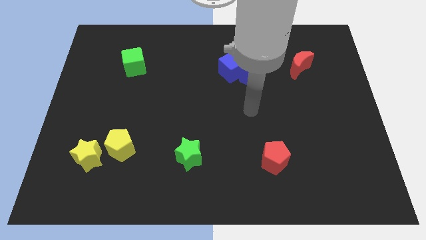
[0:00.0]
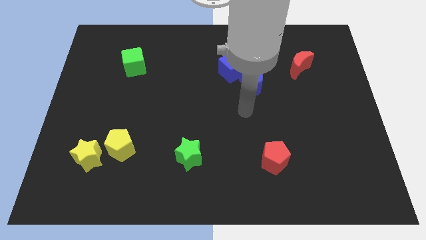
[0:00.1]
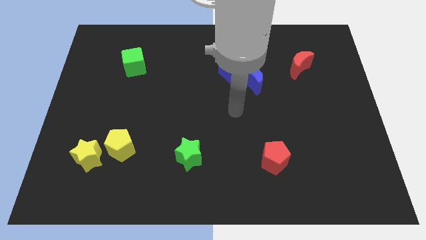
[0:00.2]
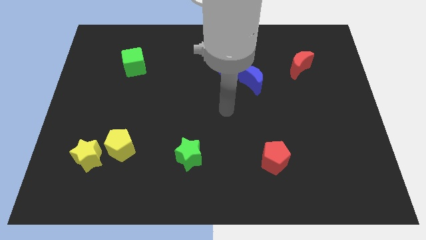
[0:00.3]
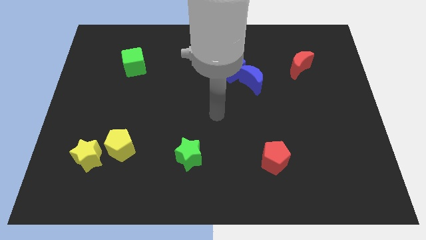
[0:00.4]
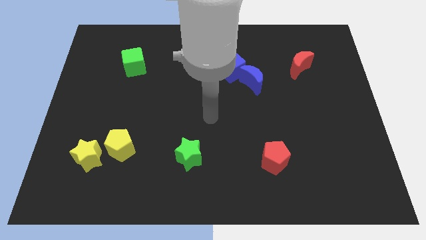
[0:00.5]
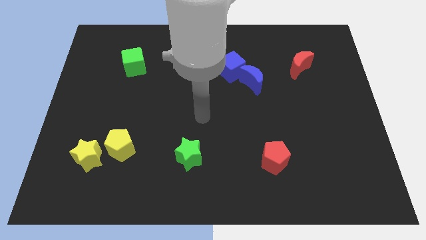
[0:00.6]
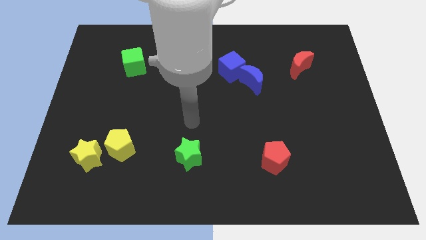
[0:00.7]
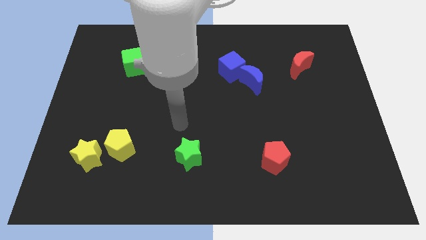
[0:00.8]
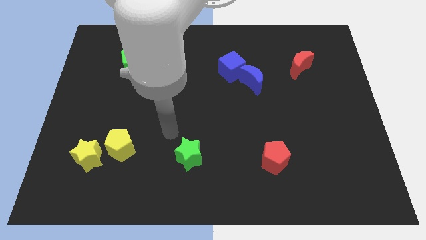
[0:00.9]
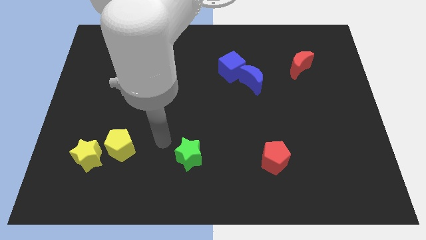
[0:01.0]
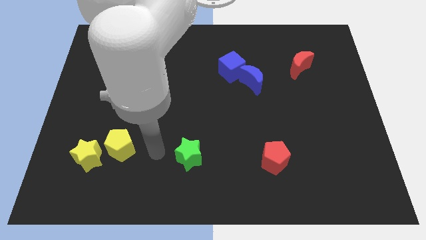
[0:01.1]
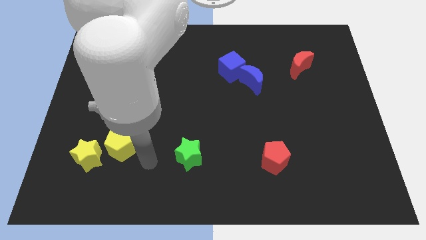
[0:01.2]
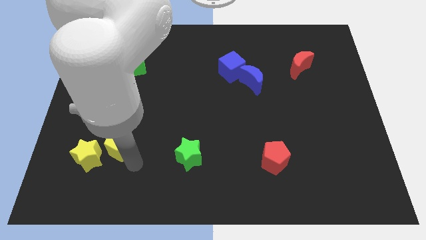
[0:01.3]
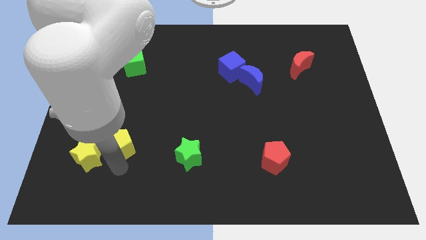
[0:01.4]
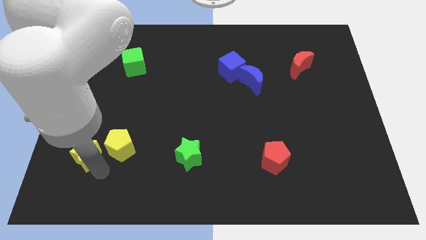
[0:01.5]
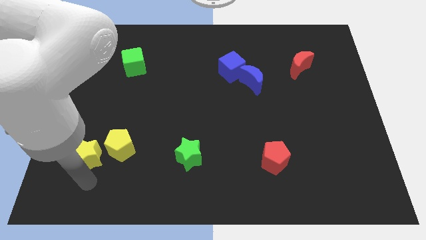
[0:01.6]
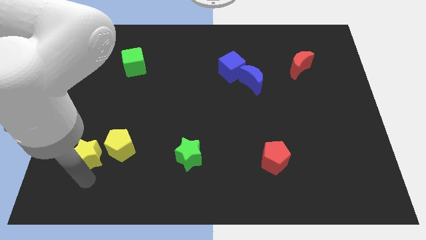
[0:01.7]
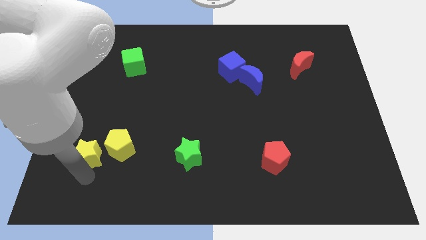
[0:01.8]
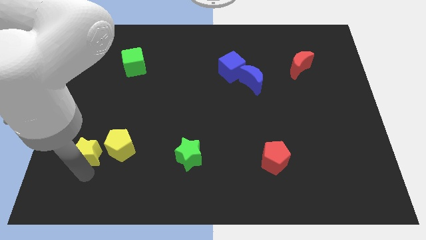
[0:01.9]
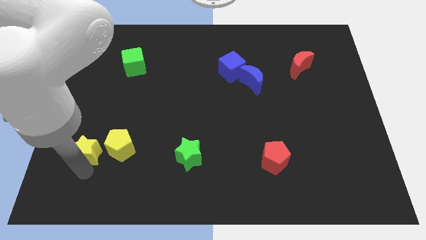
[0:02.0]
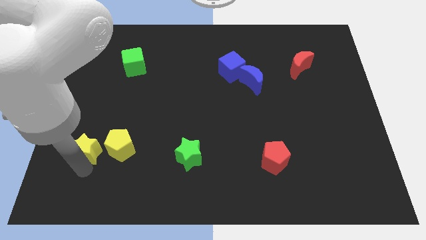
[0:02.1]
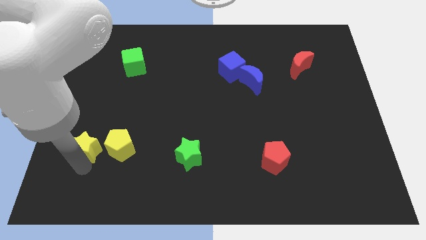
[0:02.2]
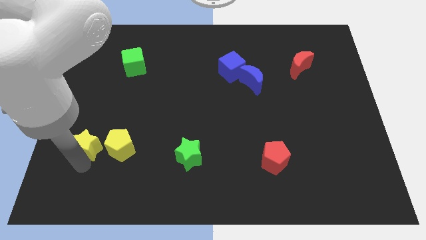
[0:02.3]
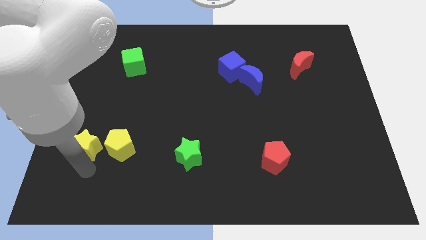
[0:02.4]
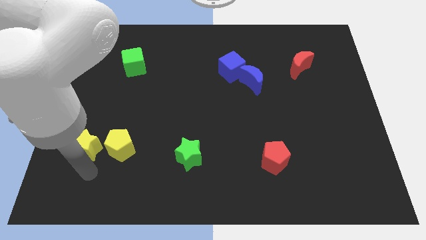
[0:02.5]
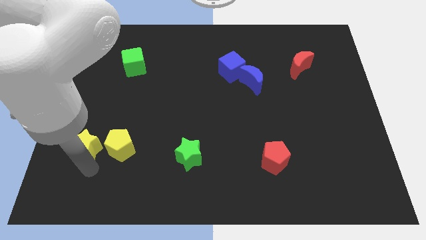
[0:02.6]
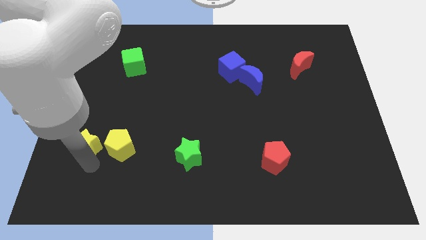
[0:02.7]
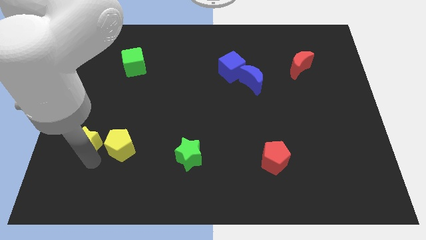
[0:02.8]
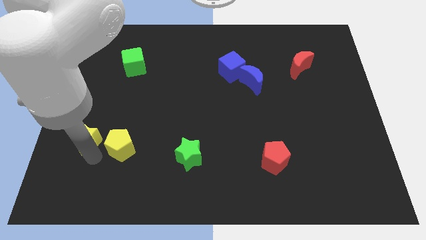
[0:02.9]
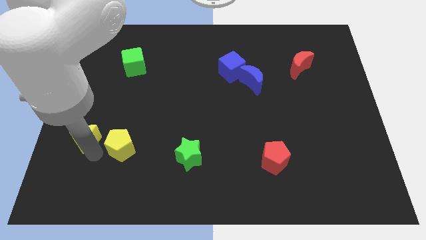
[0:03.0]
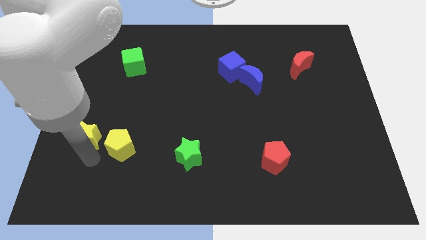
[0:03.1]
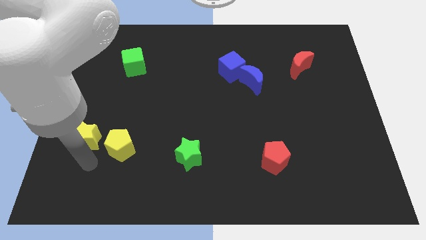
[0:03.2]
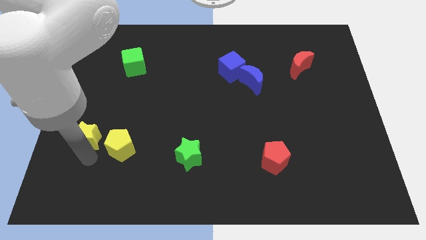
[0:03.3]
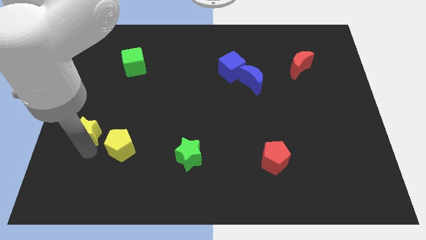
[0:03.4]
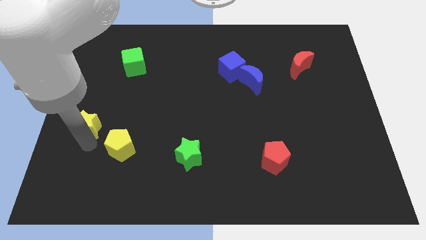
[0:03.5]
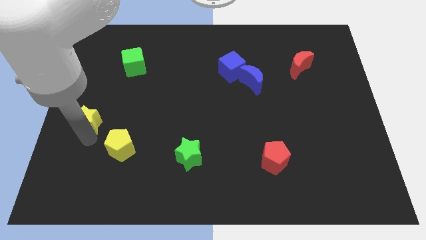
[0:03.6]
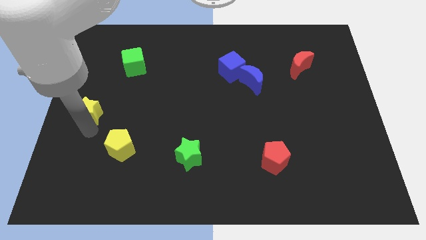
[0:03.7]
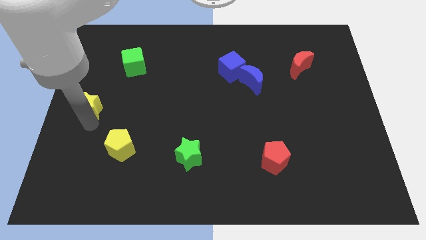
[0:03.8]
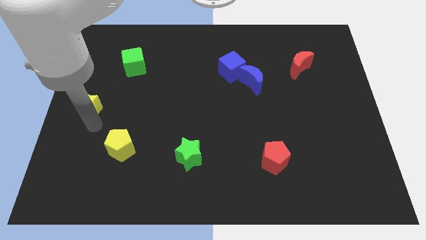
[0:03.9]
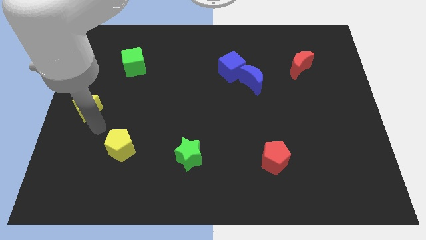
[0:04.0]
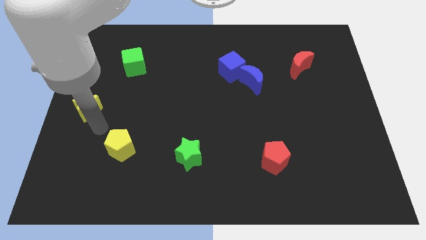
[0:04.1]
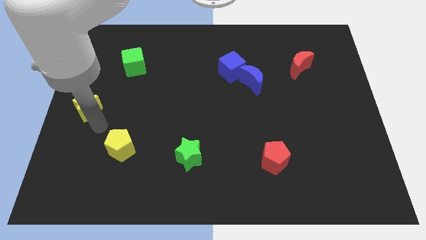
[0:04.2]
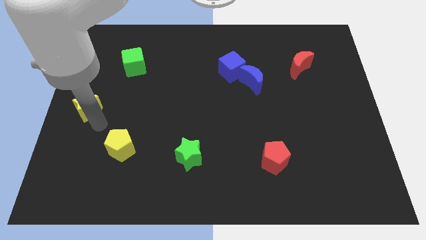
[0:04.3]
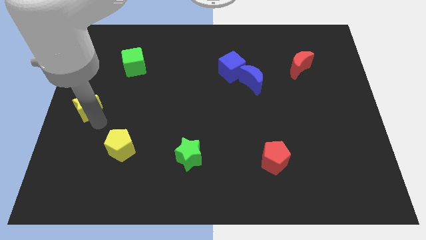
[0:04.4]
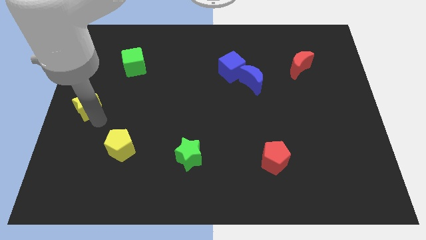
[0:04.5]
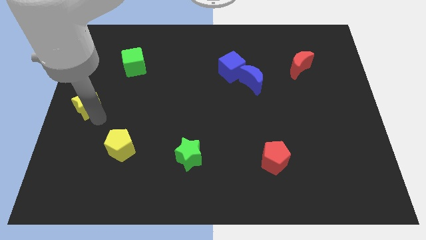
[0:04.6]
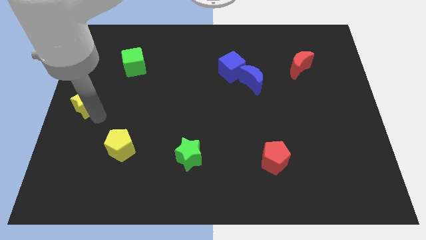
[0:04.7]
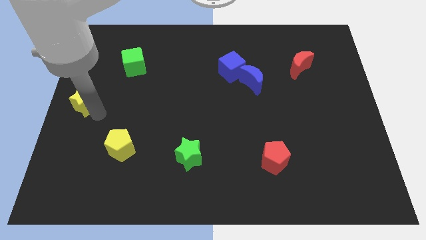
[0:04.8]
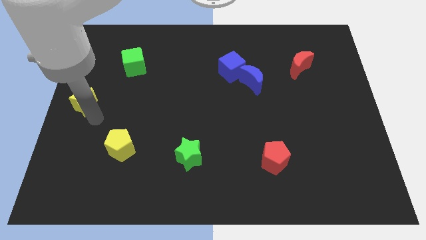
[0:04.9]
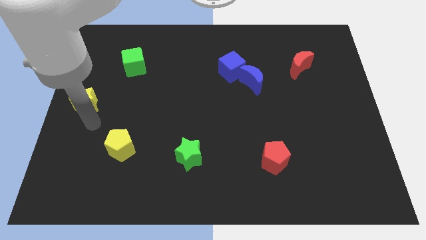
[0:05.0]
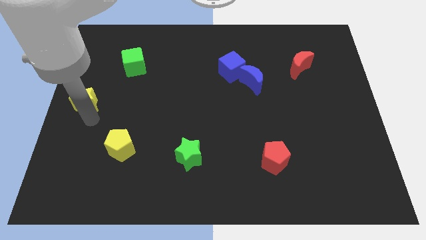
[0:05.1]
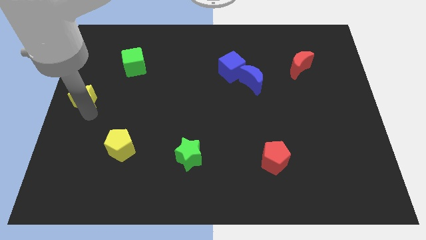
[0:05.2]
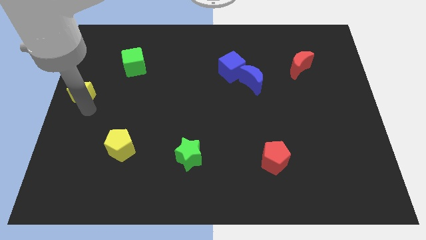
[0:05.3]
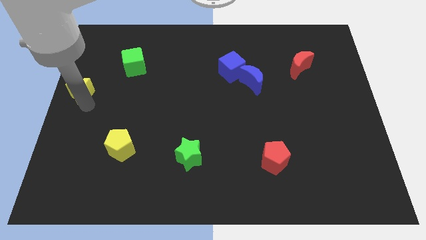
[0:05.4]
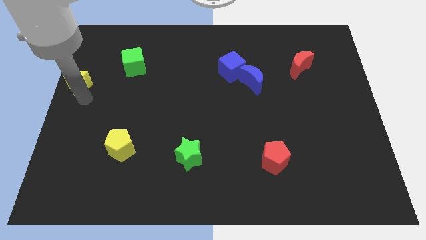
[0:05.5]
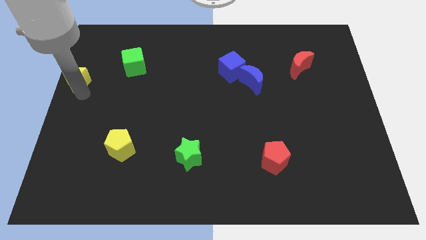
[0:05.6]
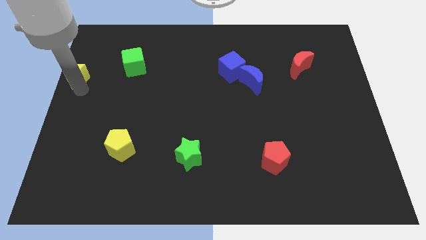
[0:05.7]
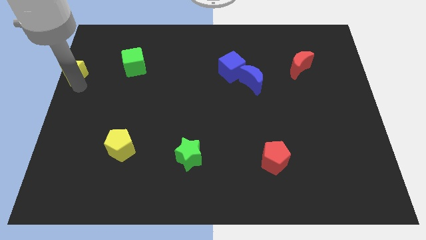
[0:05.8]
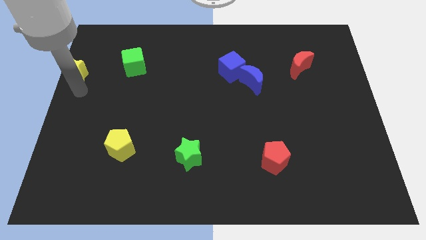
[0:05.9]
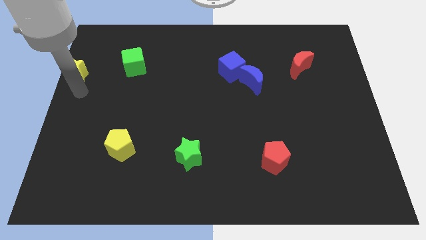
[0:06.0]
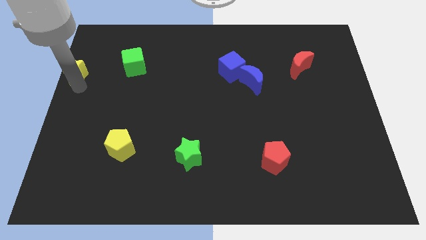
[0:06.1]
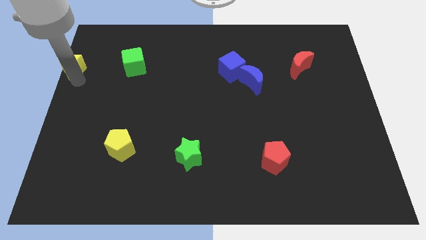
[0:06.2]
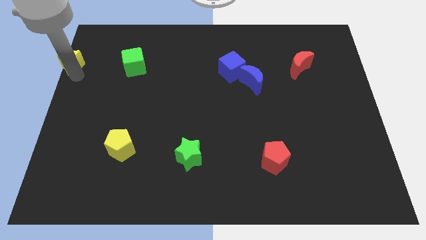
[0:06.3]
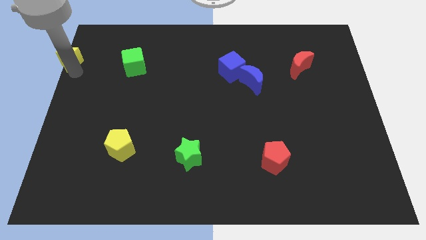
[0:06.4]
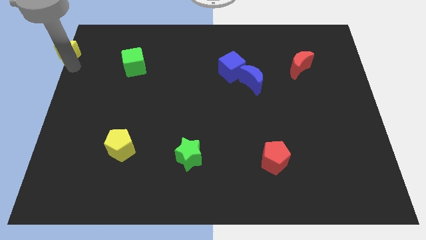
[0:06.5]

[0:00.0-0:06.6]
push the yellow star to the top left corner

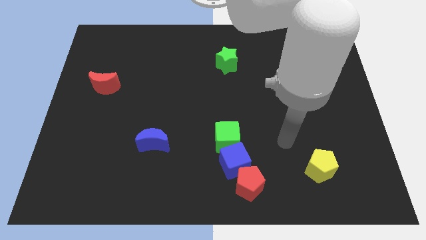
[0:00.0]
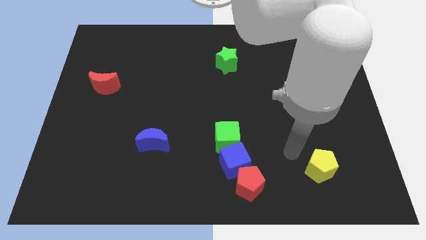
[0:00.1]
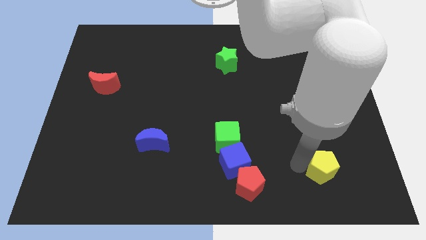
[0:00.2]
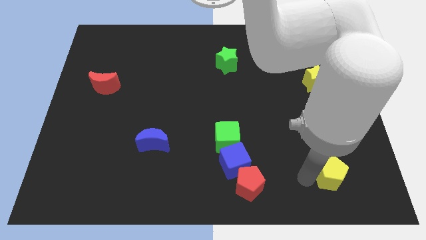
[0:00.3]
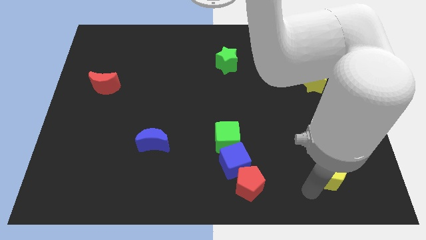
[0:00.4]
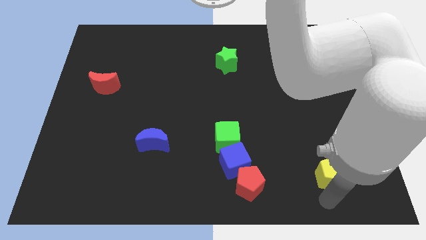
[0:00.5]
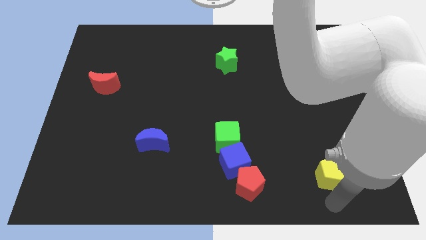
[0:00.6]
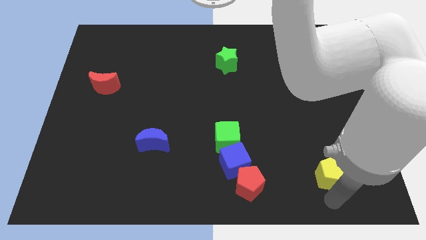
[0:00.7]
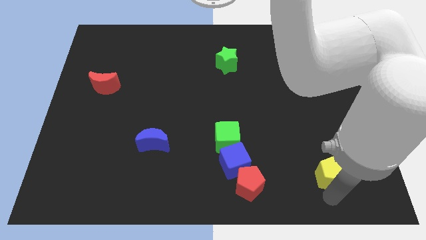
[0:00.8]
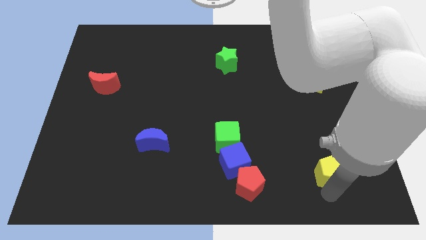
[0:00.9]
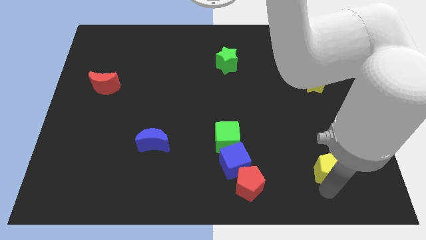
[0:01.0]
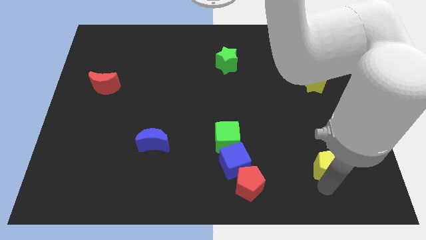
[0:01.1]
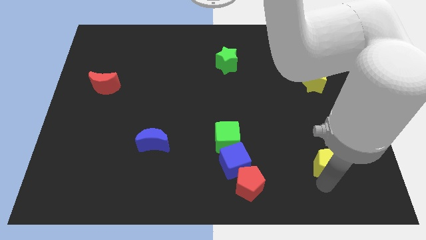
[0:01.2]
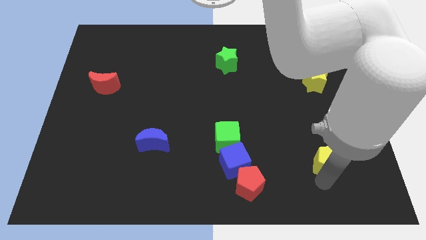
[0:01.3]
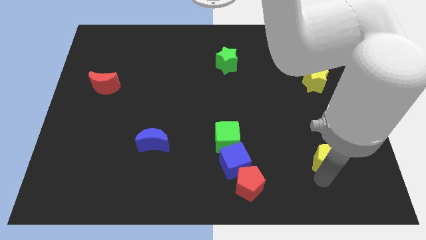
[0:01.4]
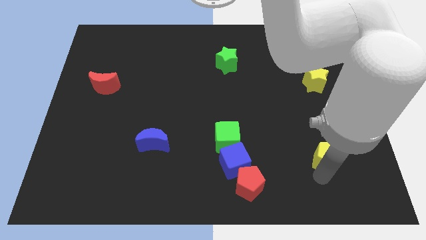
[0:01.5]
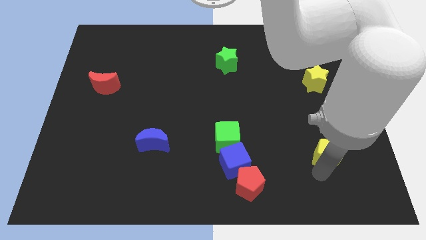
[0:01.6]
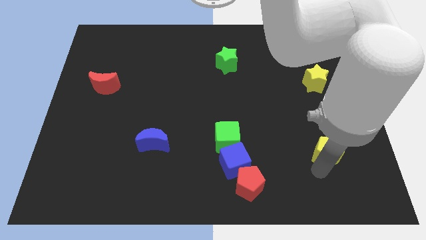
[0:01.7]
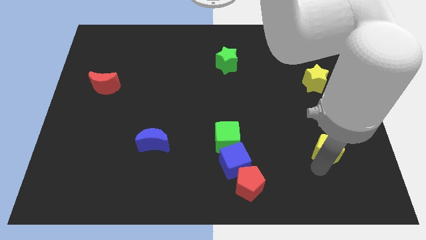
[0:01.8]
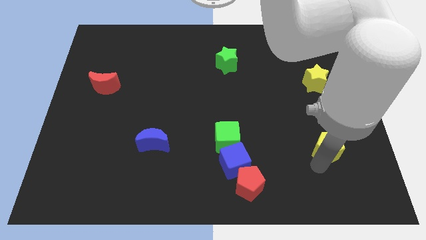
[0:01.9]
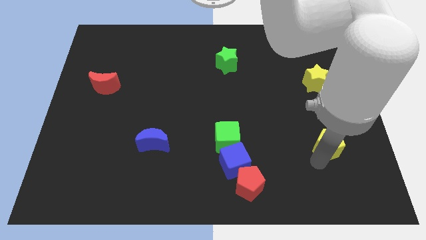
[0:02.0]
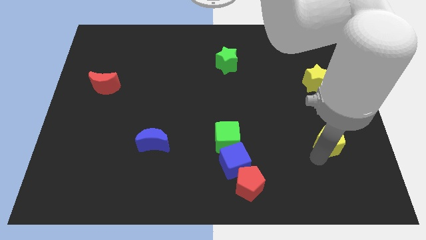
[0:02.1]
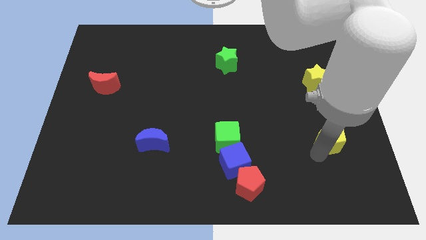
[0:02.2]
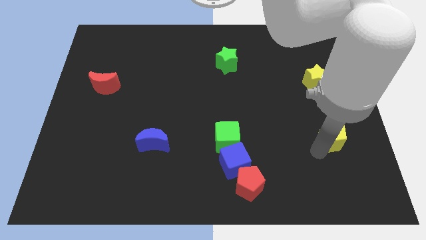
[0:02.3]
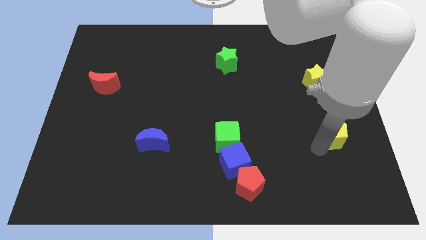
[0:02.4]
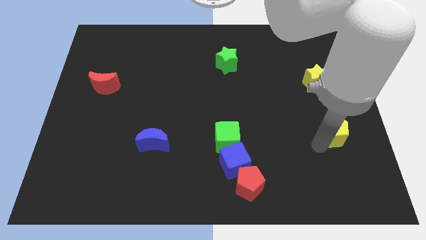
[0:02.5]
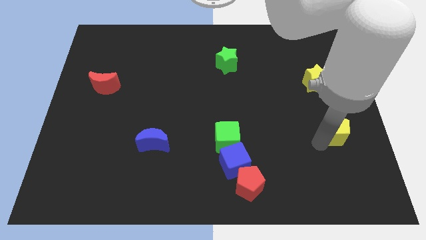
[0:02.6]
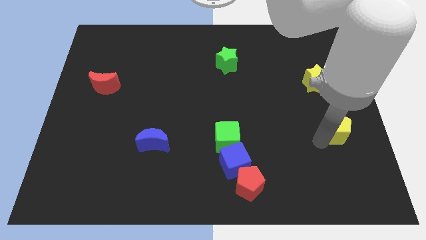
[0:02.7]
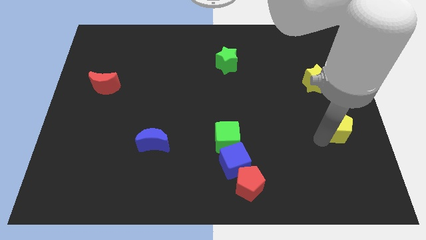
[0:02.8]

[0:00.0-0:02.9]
move the yellow pentagon to the center right
